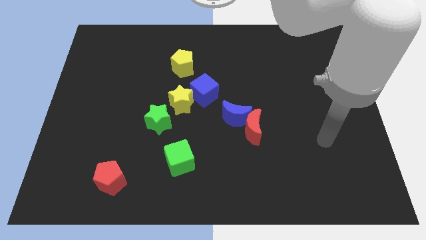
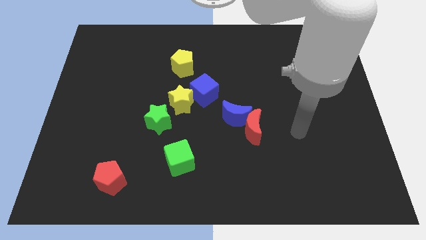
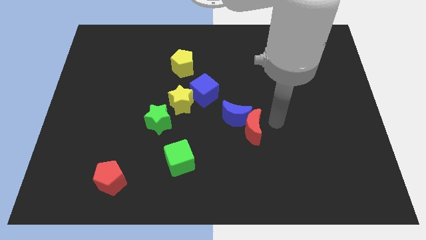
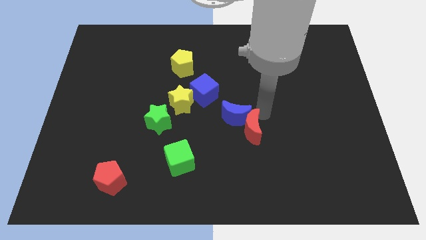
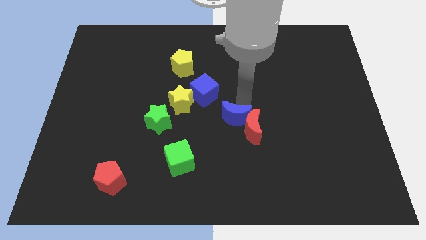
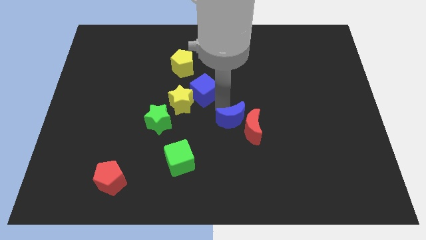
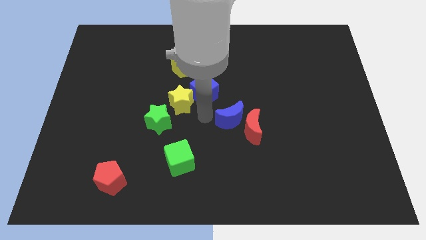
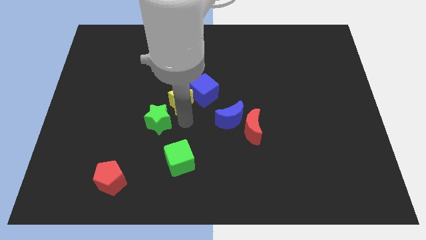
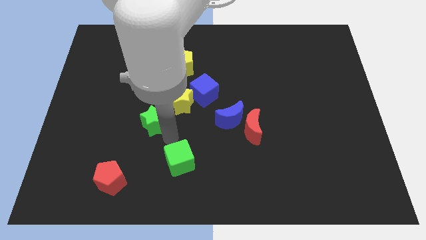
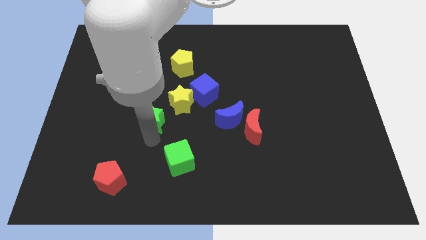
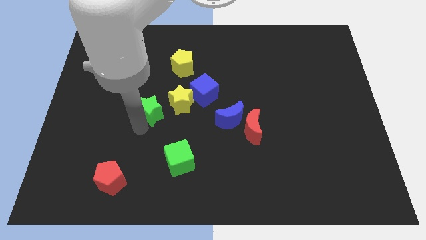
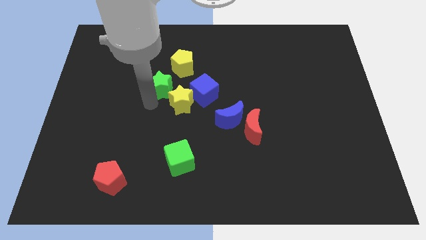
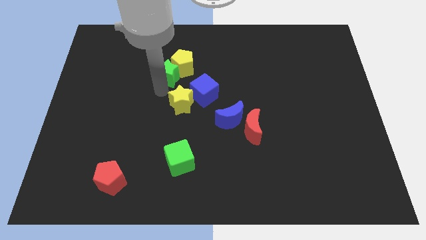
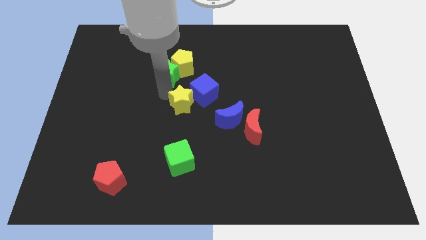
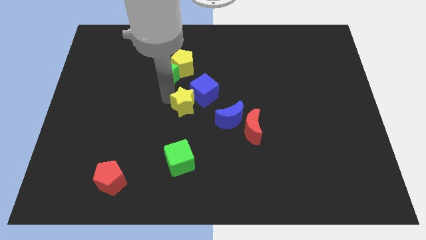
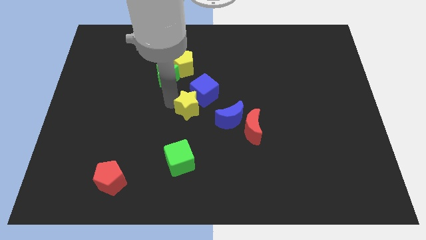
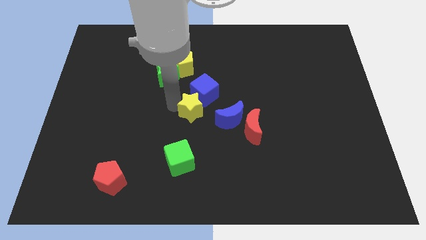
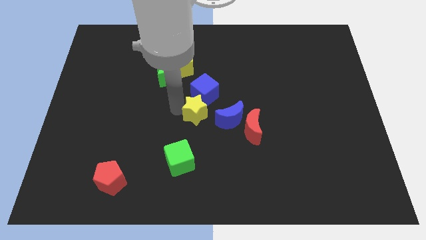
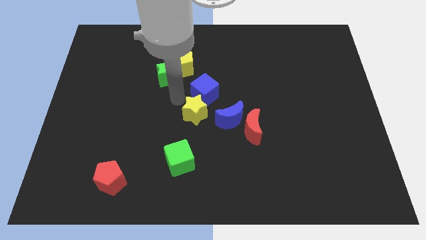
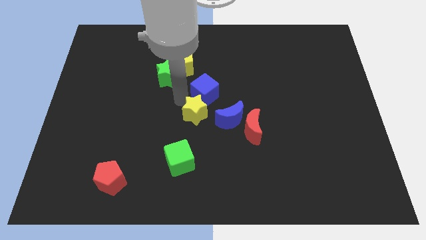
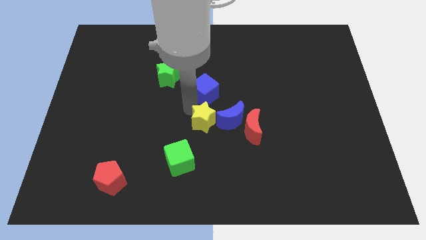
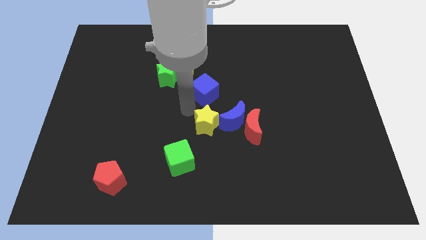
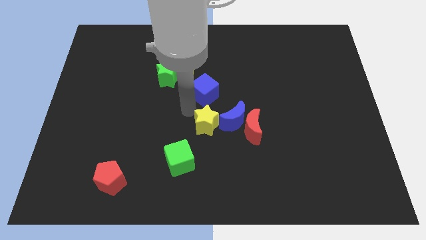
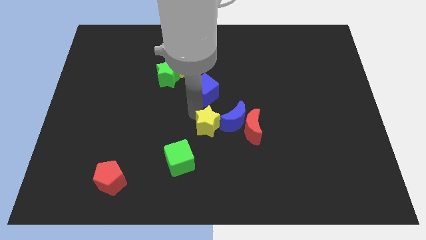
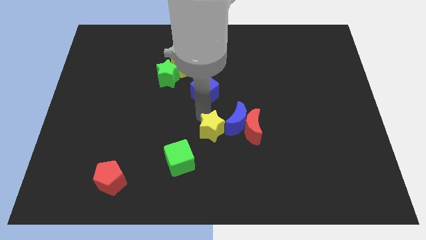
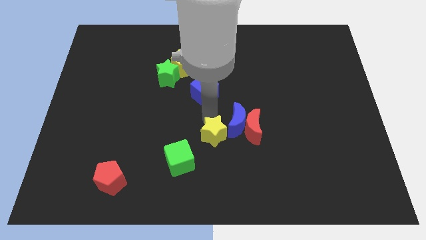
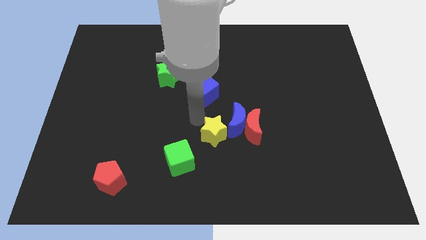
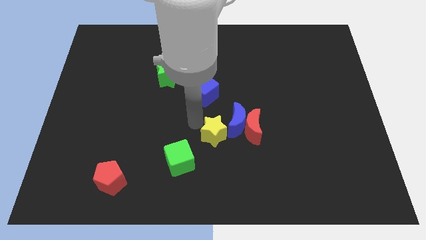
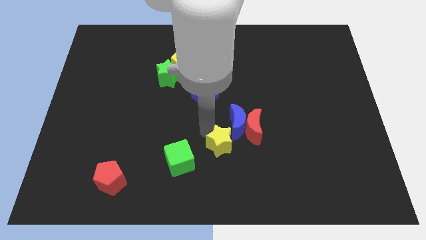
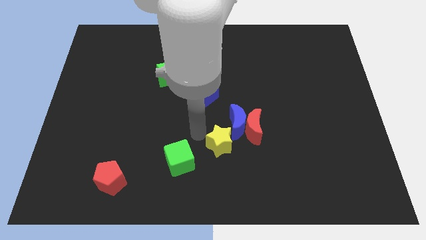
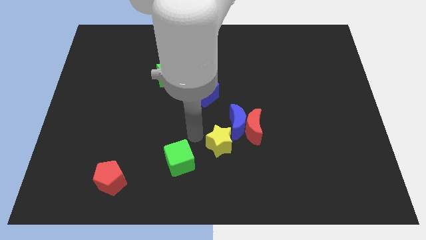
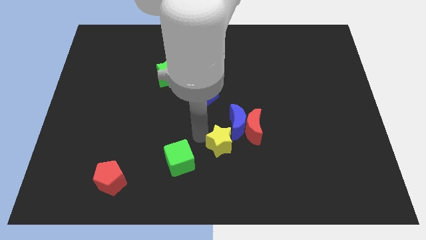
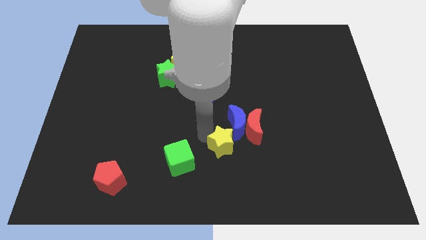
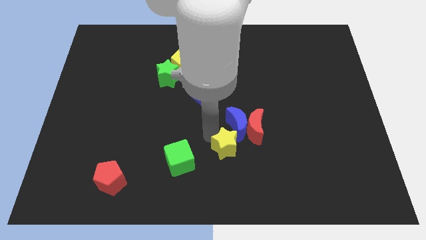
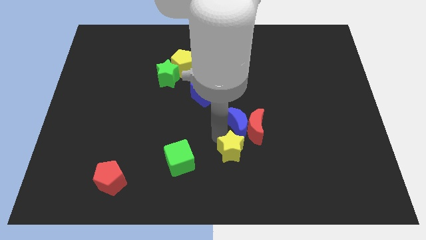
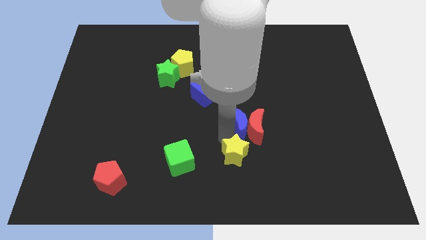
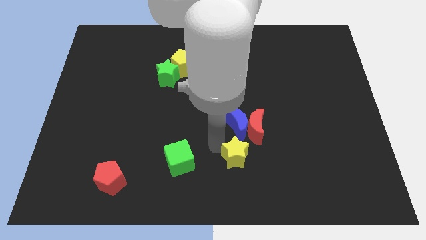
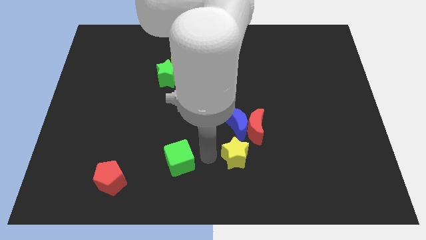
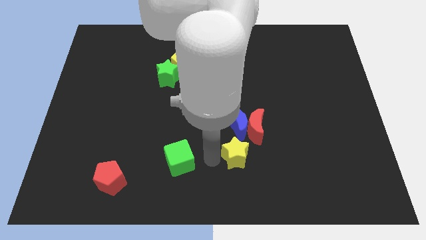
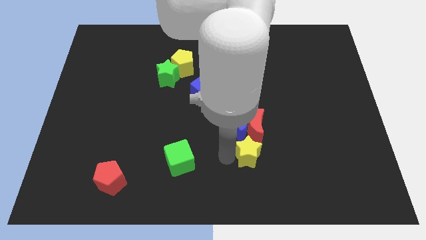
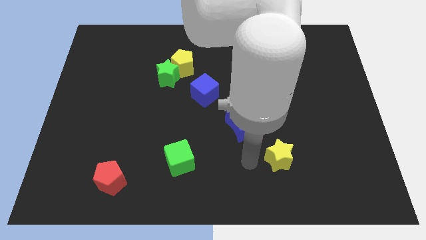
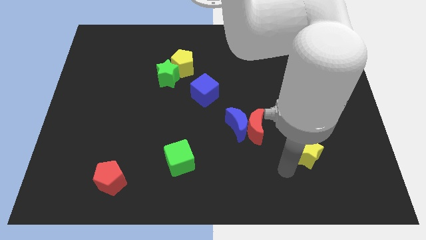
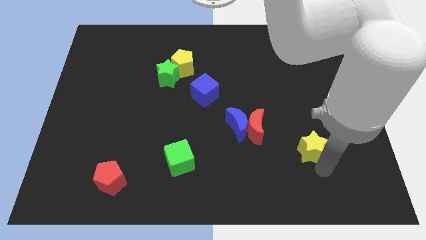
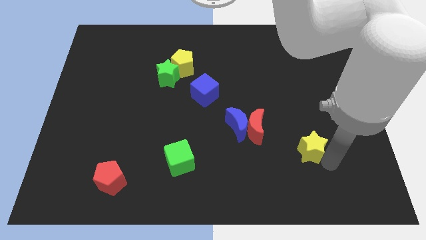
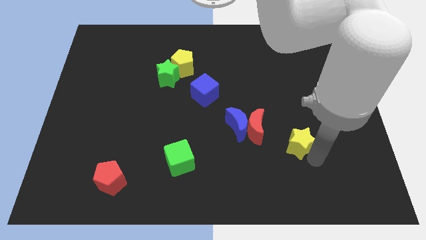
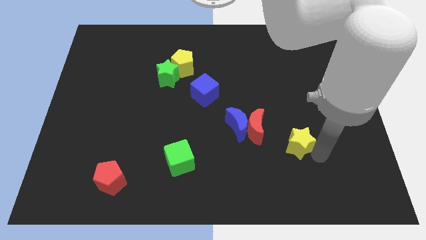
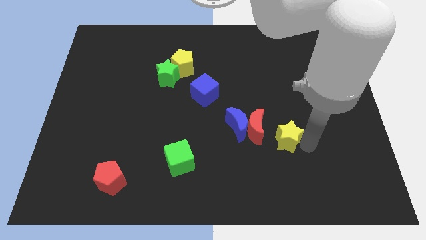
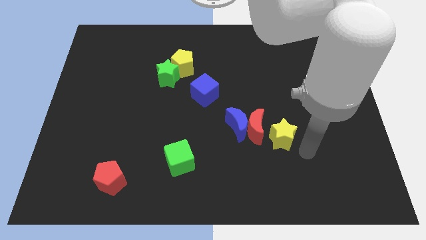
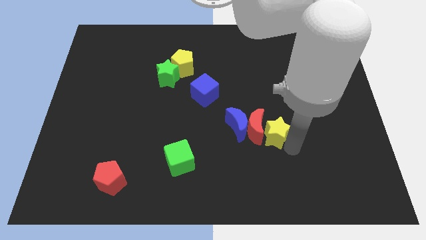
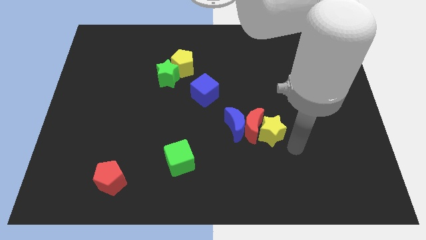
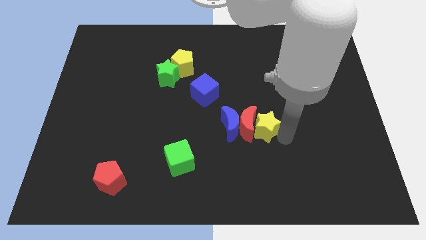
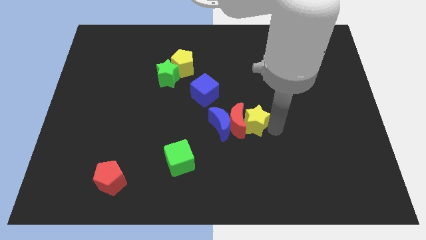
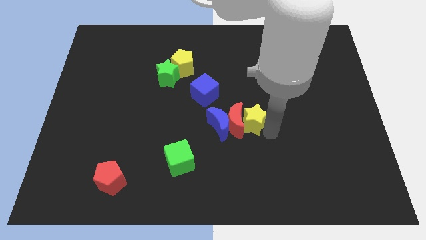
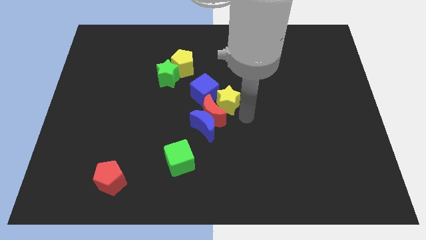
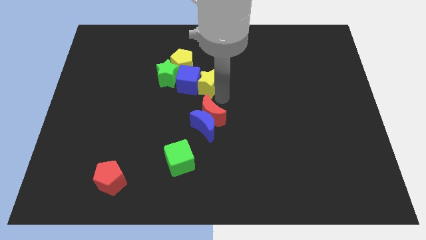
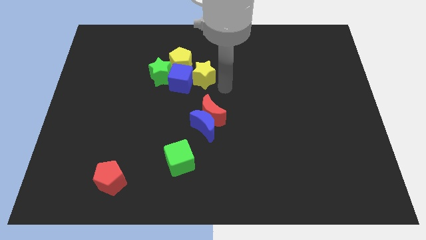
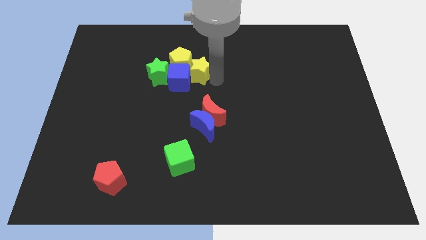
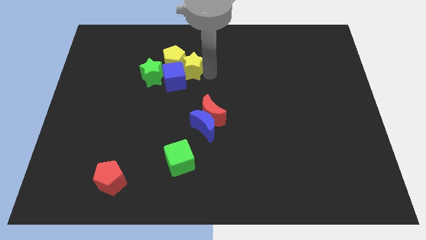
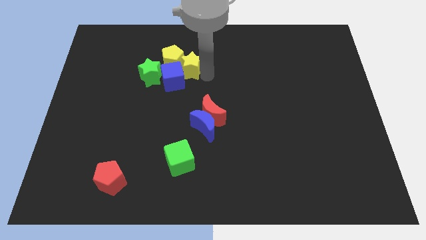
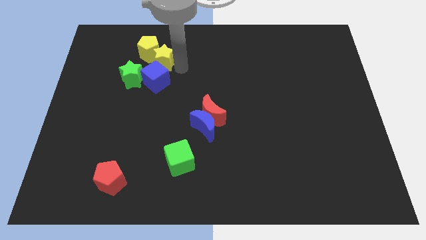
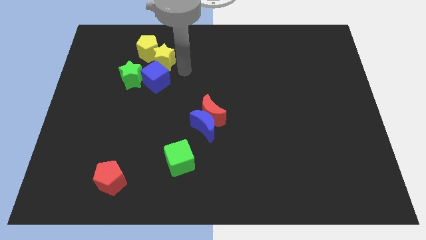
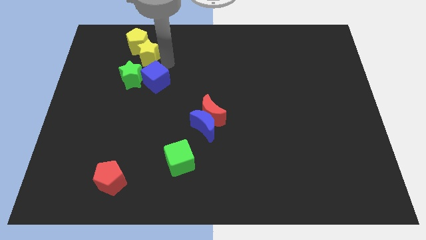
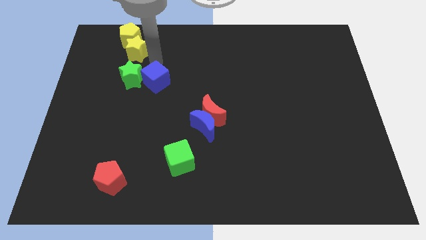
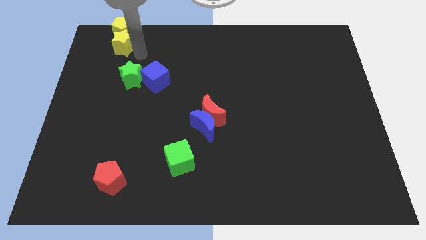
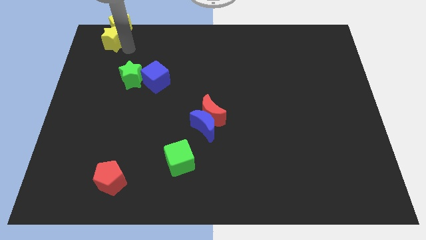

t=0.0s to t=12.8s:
put the yellow star to the top left corner

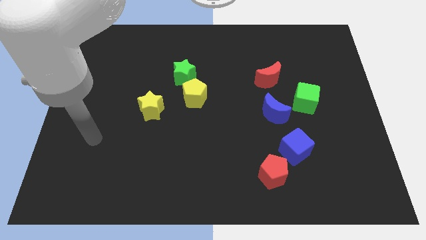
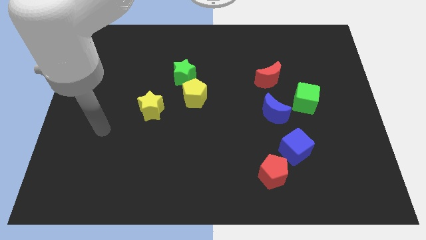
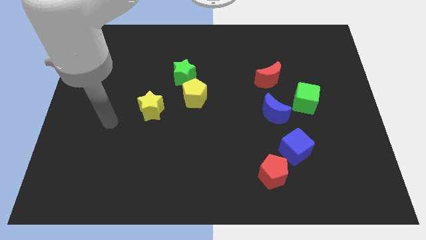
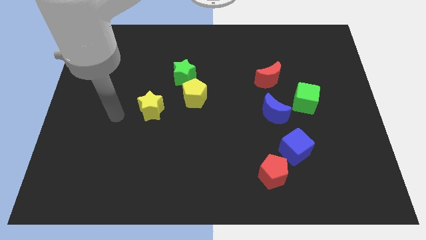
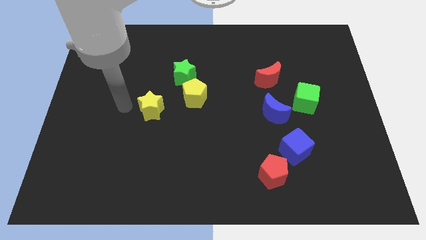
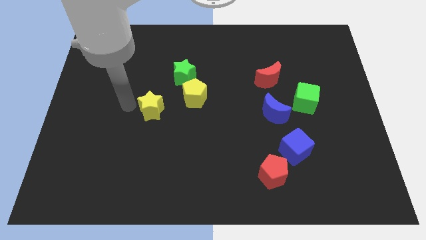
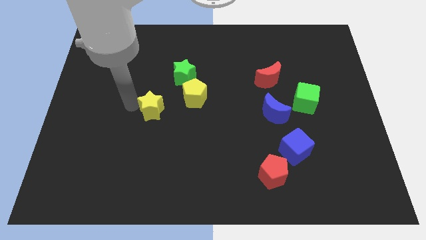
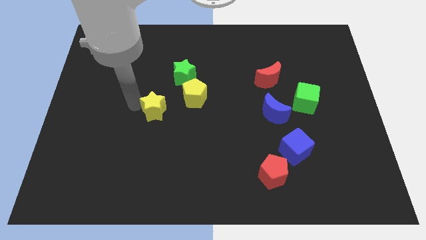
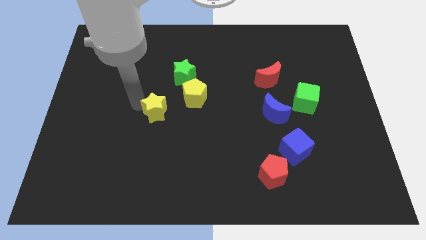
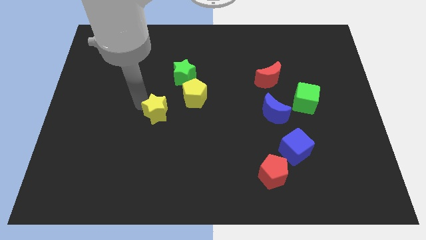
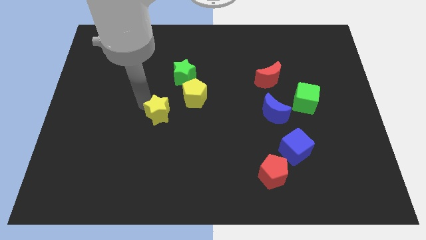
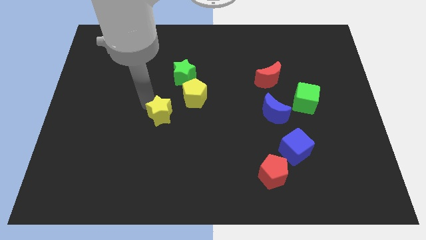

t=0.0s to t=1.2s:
push the yellow star to the center of the board

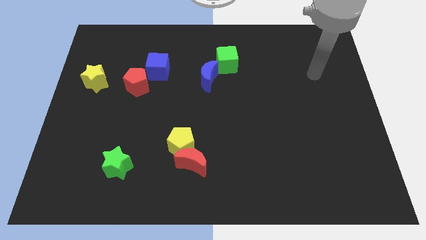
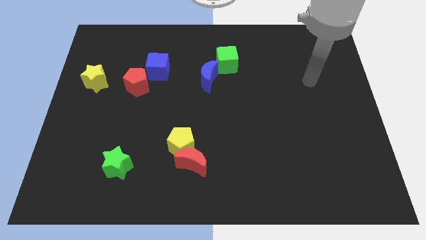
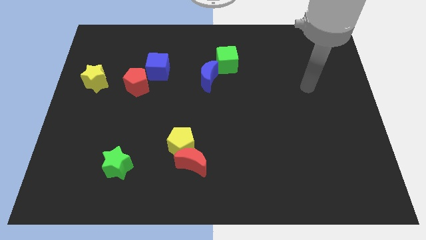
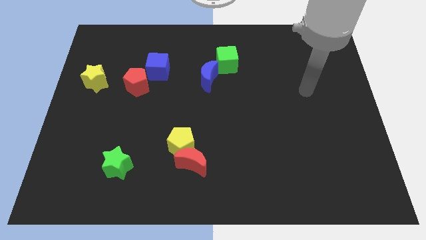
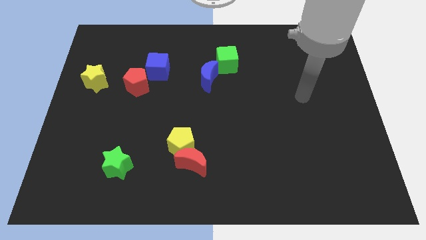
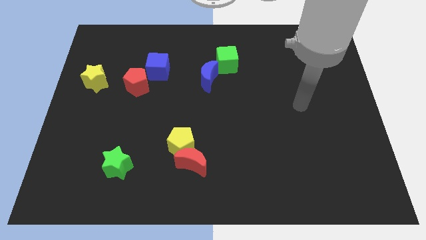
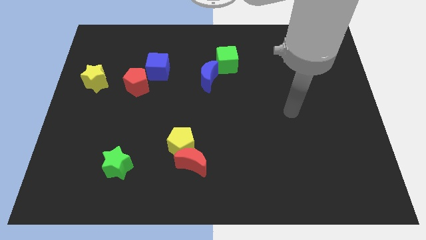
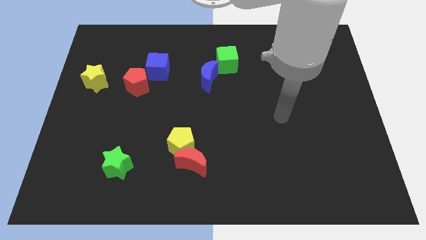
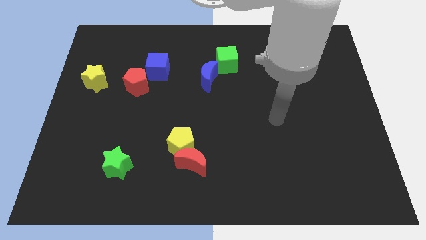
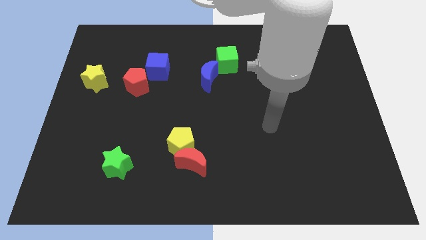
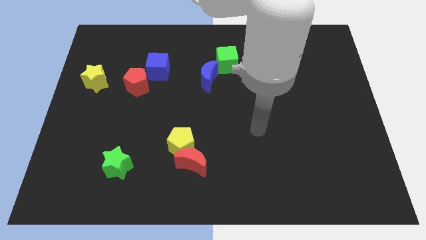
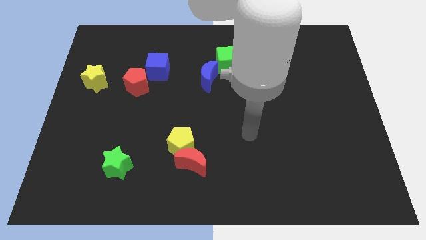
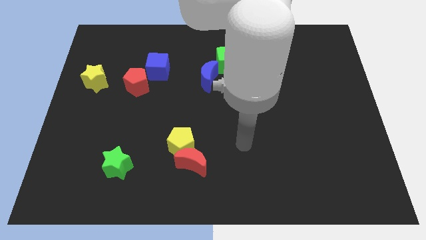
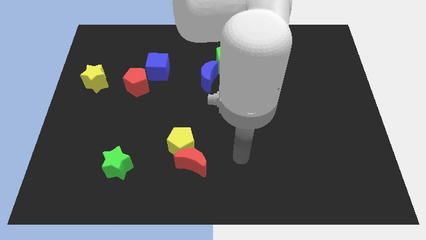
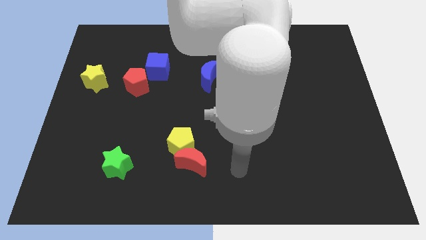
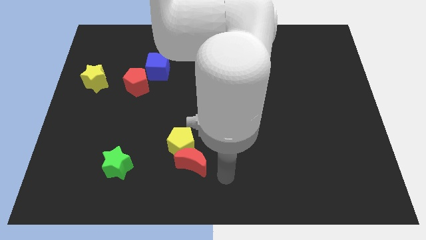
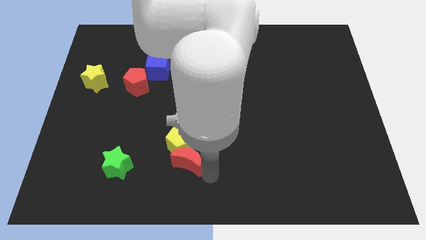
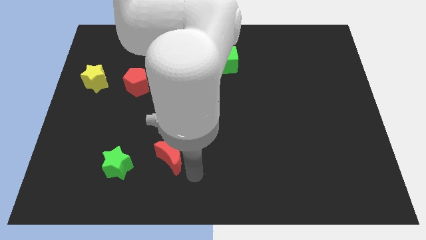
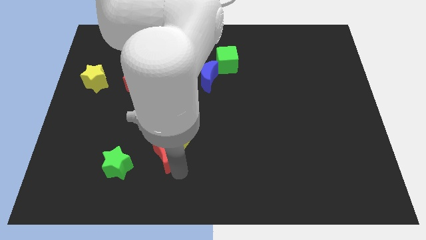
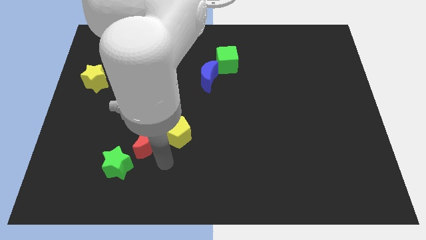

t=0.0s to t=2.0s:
put the yellow pentagon to the center of the board
